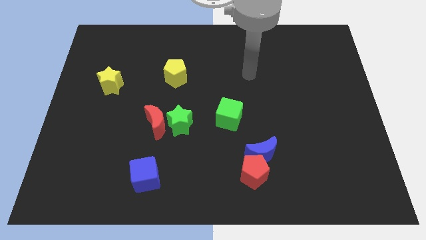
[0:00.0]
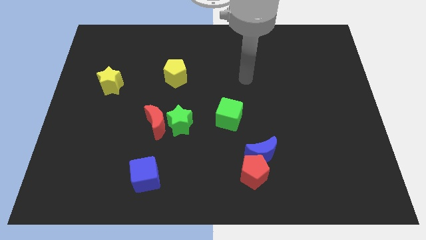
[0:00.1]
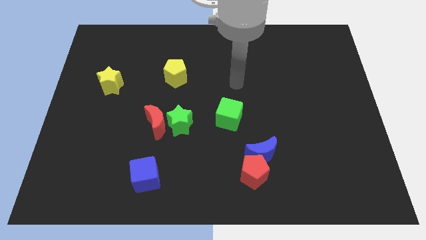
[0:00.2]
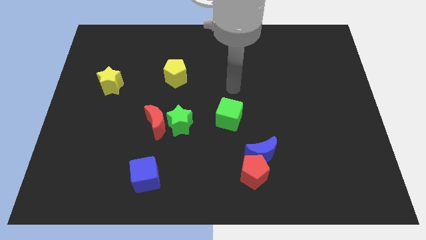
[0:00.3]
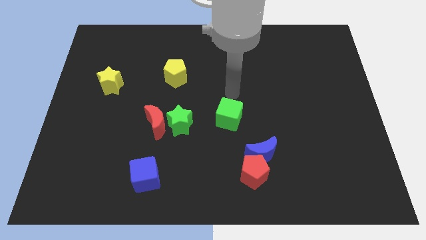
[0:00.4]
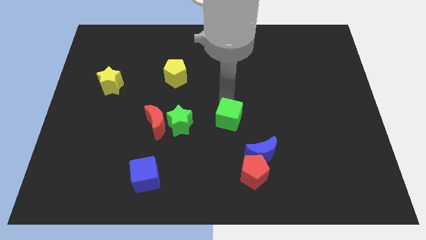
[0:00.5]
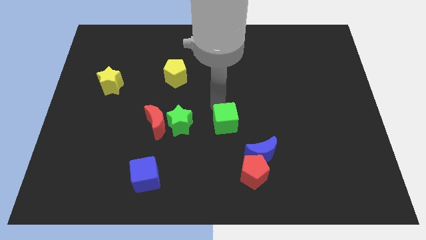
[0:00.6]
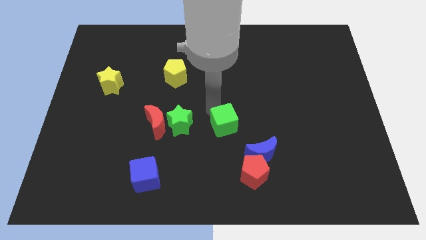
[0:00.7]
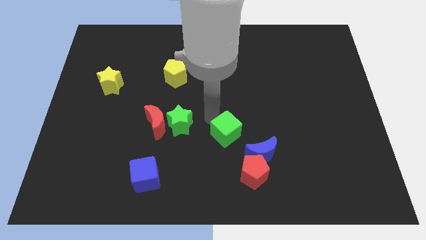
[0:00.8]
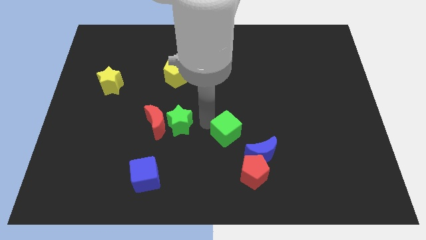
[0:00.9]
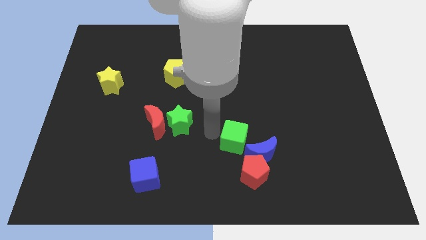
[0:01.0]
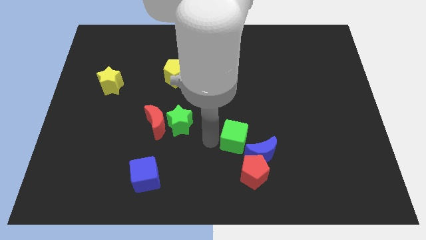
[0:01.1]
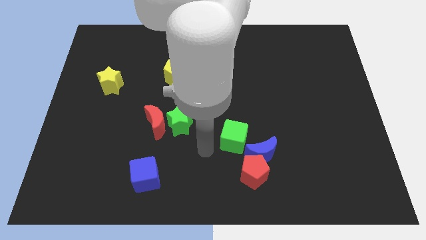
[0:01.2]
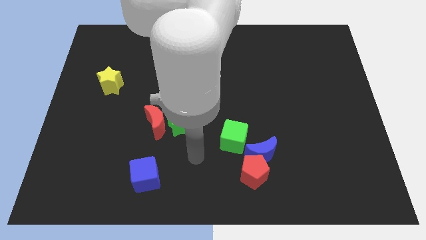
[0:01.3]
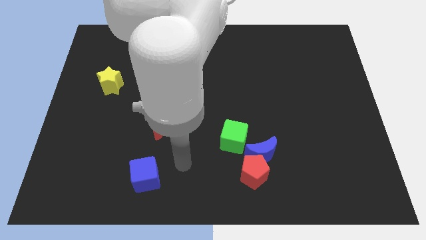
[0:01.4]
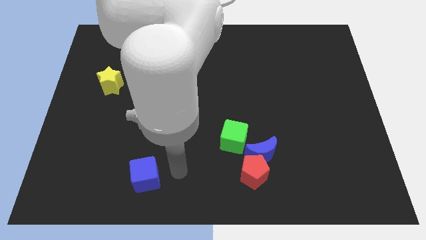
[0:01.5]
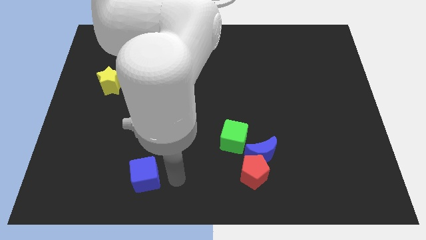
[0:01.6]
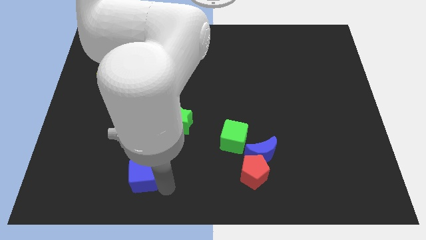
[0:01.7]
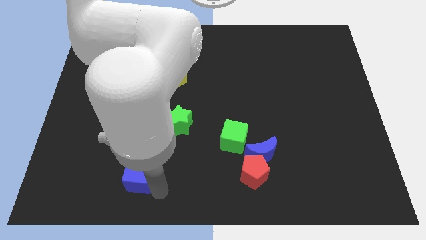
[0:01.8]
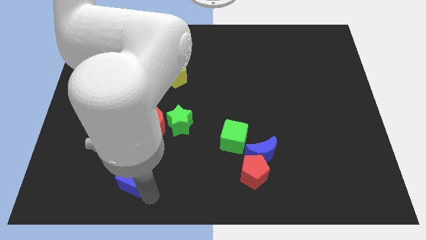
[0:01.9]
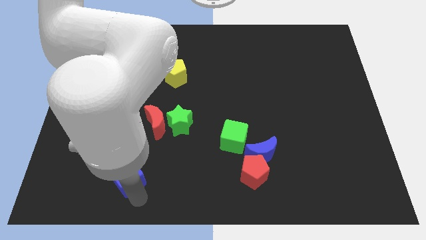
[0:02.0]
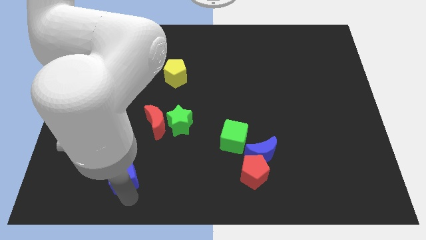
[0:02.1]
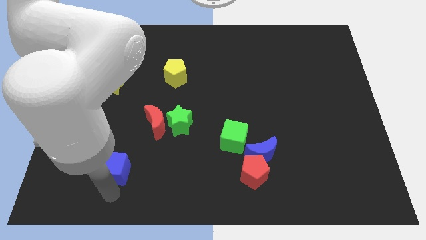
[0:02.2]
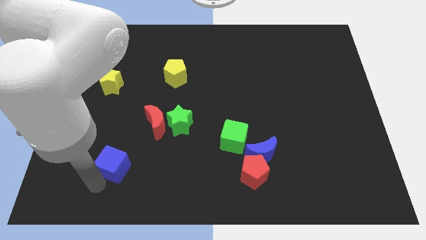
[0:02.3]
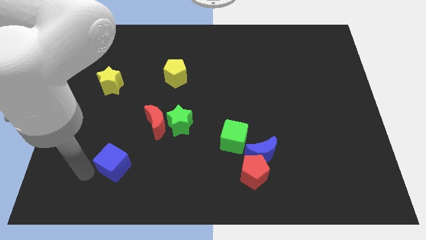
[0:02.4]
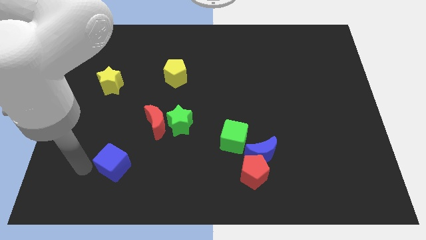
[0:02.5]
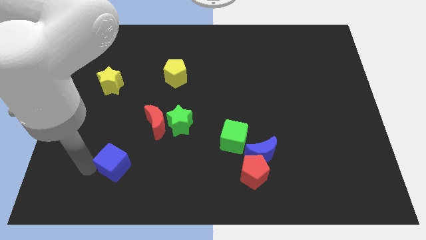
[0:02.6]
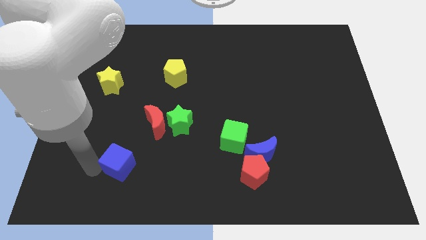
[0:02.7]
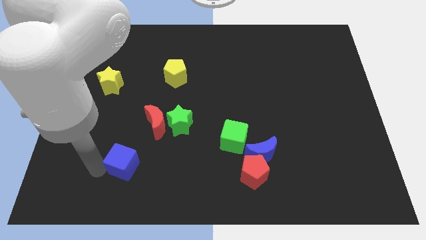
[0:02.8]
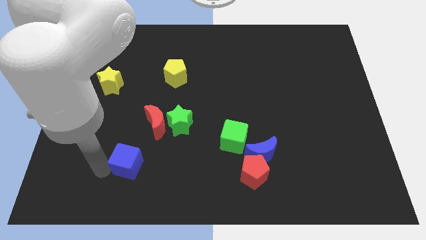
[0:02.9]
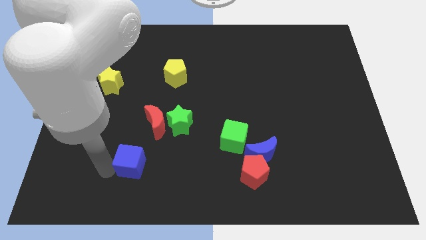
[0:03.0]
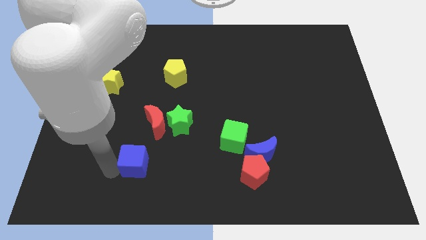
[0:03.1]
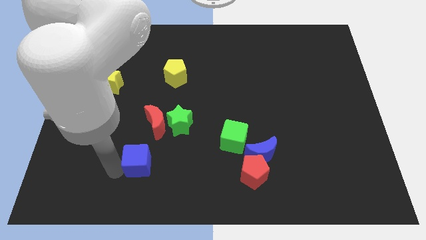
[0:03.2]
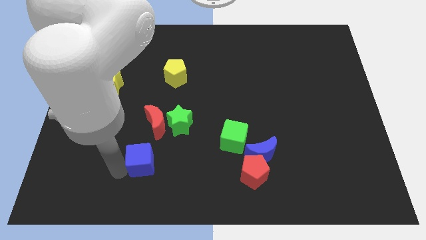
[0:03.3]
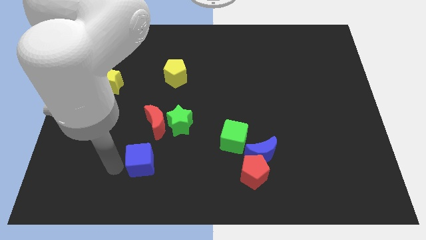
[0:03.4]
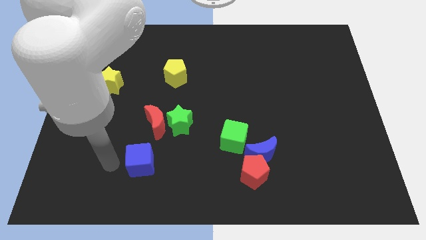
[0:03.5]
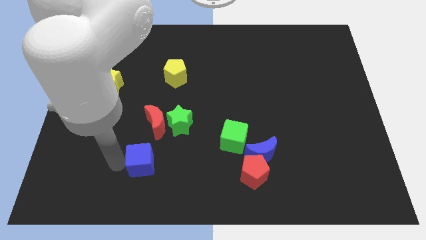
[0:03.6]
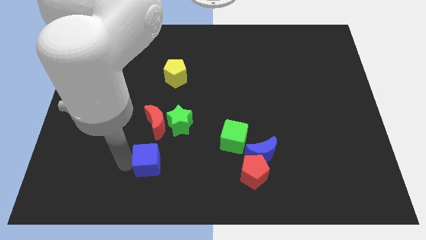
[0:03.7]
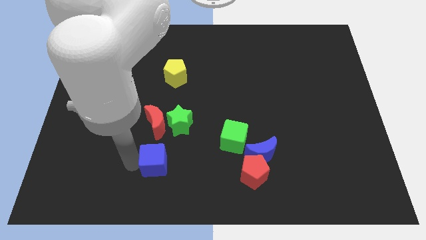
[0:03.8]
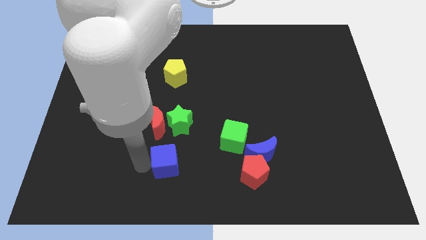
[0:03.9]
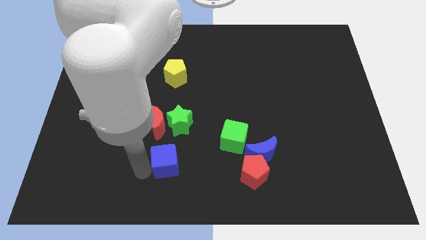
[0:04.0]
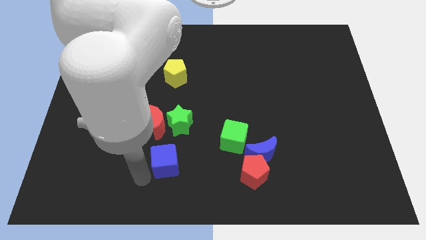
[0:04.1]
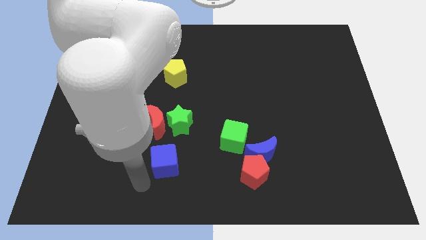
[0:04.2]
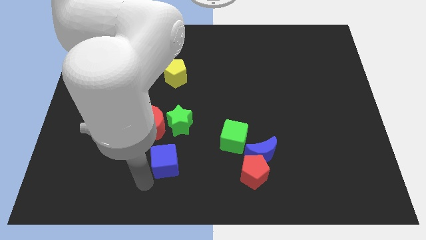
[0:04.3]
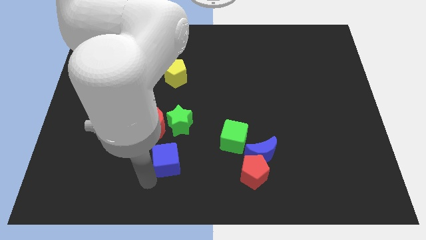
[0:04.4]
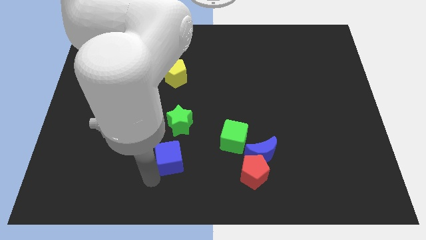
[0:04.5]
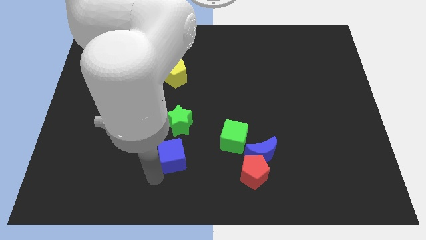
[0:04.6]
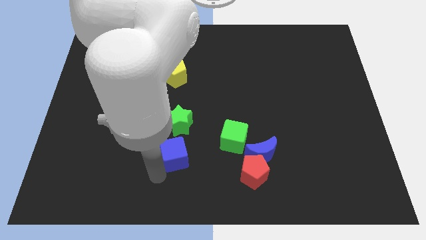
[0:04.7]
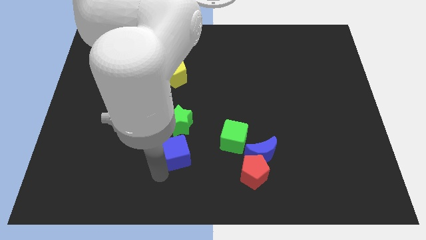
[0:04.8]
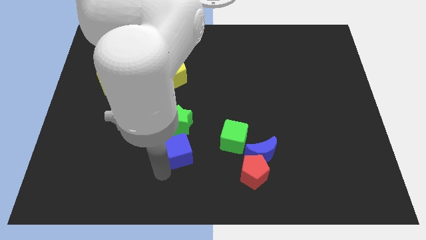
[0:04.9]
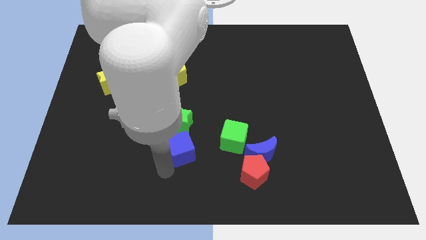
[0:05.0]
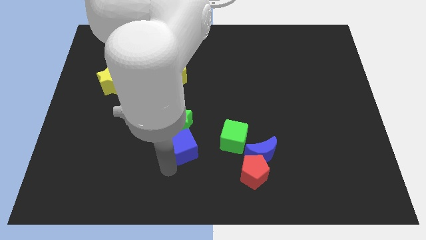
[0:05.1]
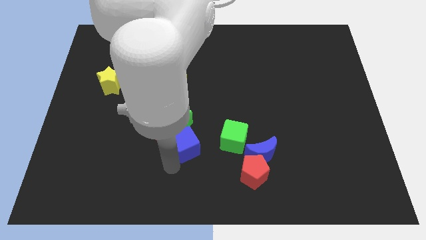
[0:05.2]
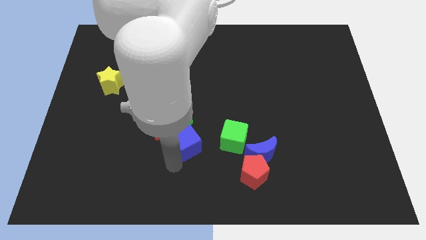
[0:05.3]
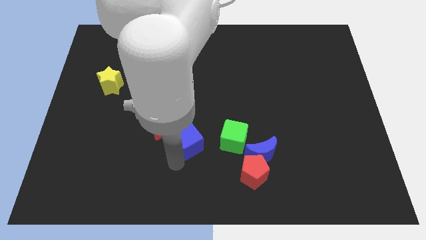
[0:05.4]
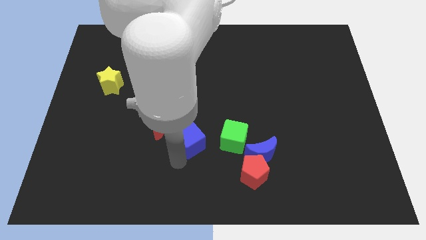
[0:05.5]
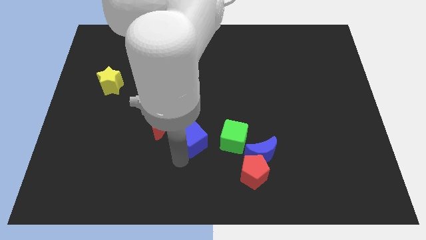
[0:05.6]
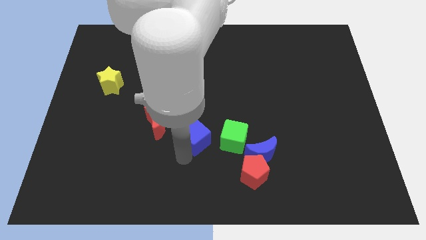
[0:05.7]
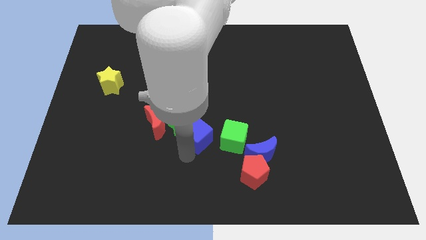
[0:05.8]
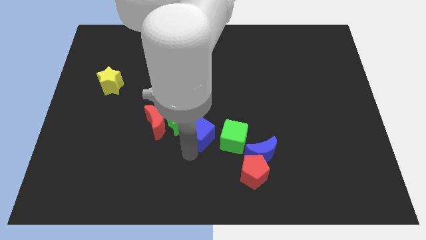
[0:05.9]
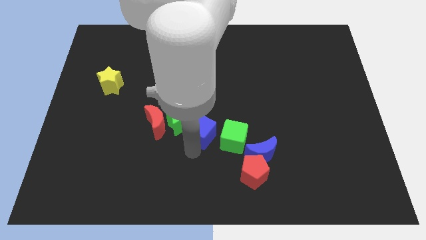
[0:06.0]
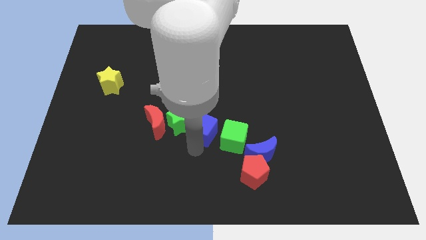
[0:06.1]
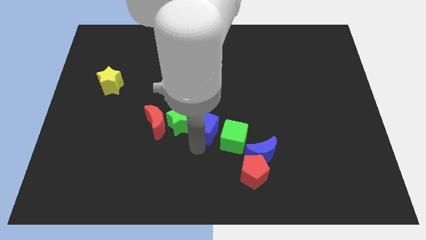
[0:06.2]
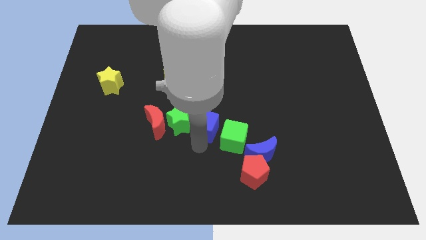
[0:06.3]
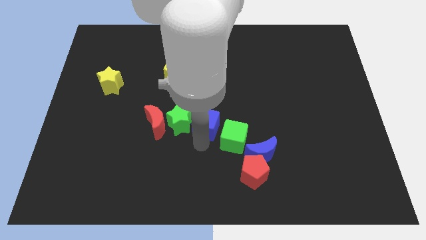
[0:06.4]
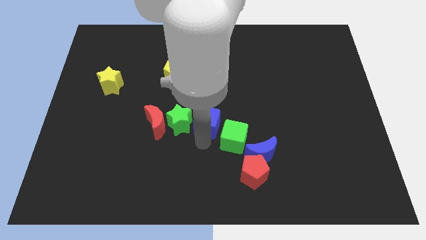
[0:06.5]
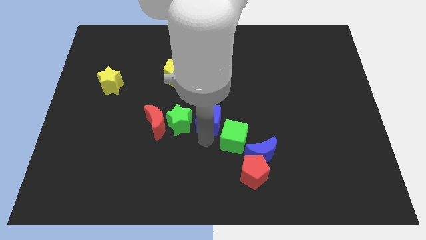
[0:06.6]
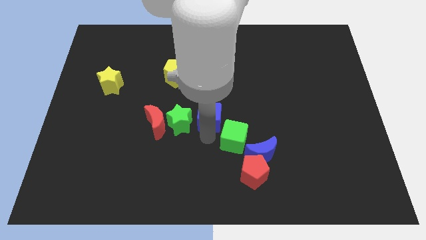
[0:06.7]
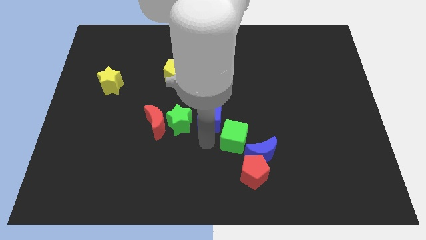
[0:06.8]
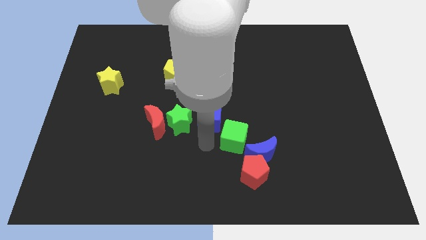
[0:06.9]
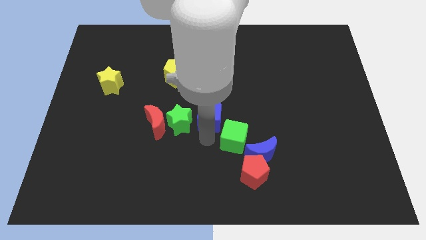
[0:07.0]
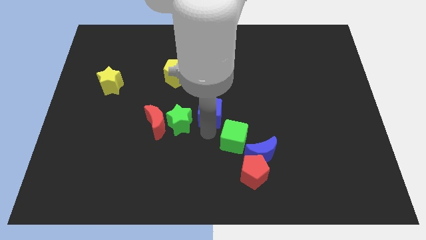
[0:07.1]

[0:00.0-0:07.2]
move the blue cube up and right

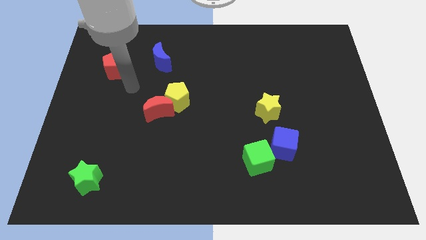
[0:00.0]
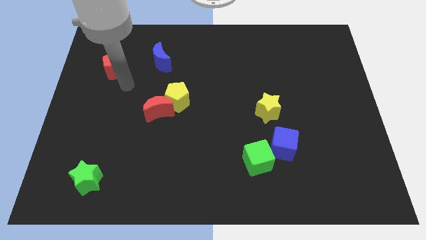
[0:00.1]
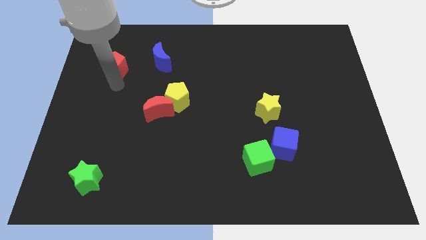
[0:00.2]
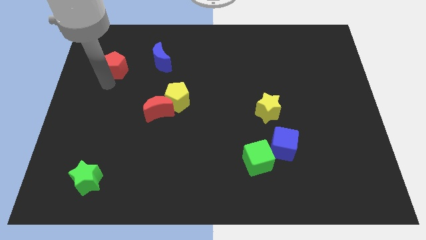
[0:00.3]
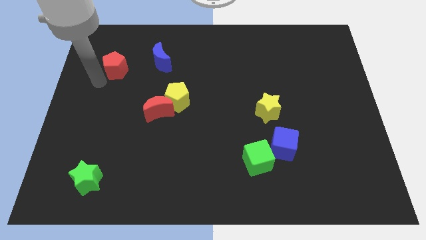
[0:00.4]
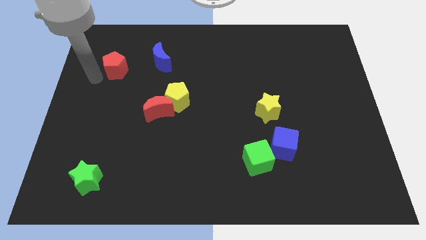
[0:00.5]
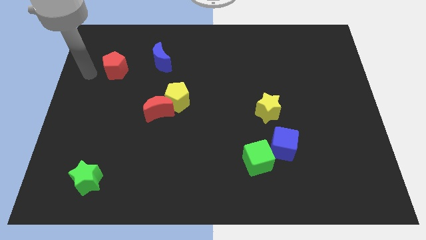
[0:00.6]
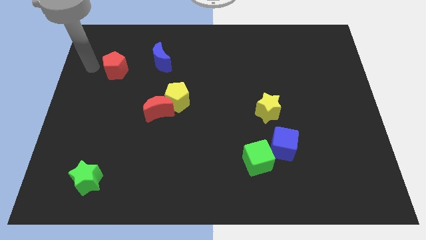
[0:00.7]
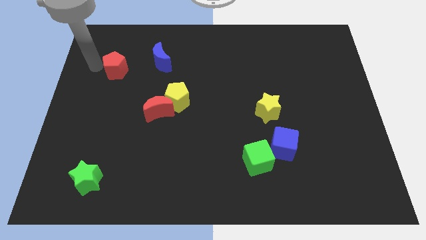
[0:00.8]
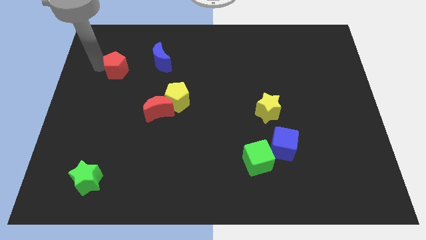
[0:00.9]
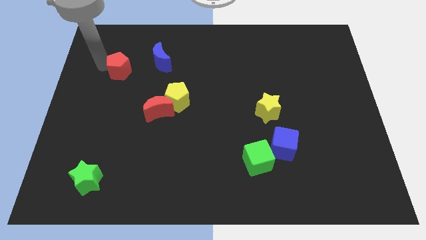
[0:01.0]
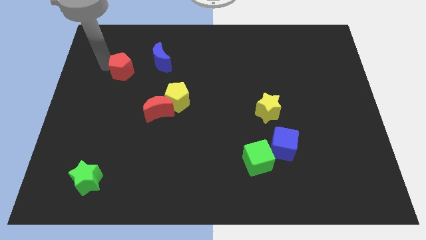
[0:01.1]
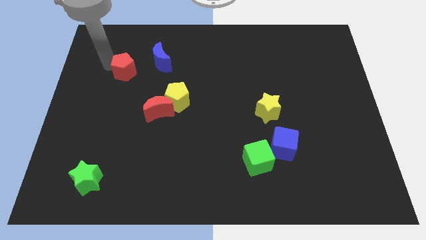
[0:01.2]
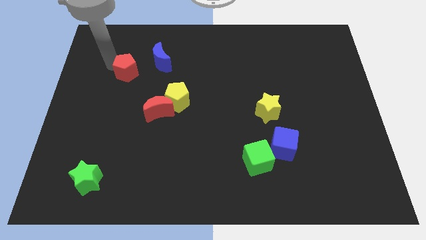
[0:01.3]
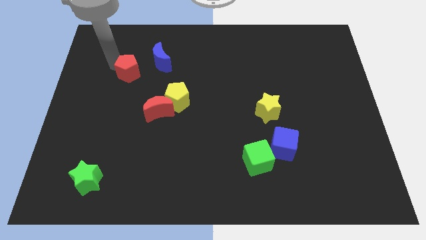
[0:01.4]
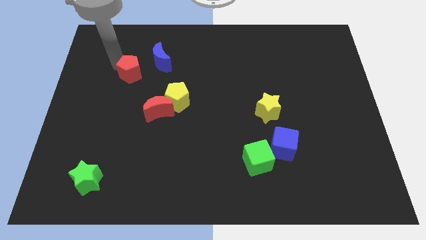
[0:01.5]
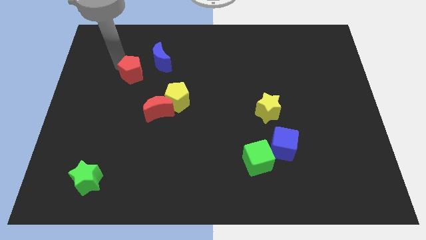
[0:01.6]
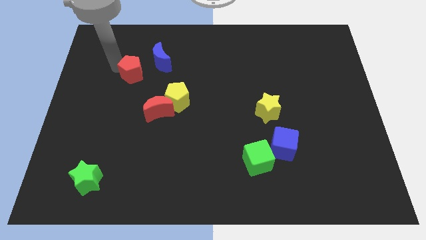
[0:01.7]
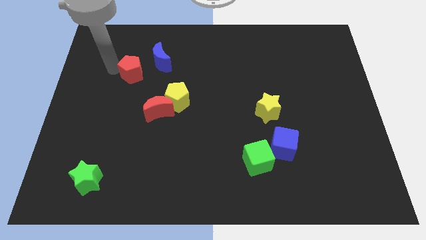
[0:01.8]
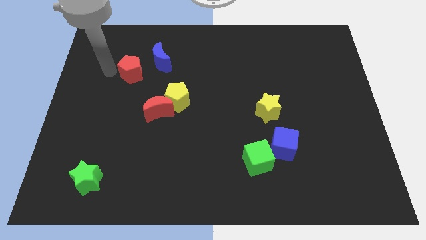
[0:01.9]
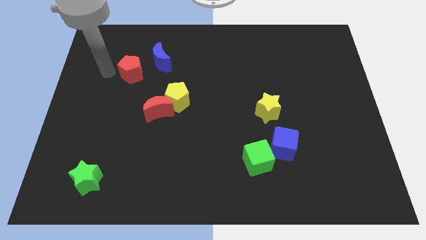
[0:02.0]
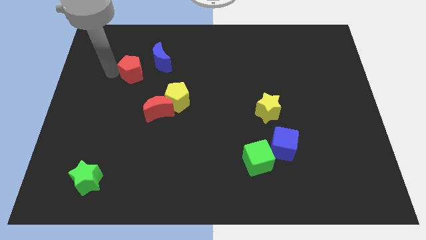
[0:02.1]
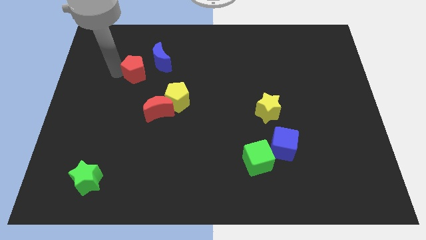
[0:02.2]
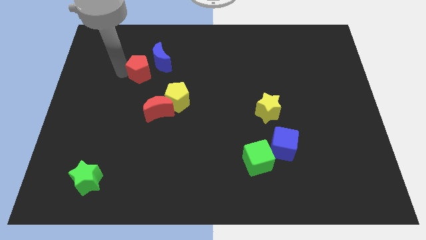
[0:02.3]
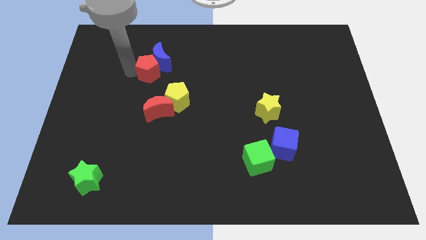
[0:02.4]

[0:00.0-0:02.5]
move the red pentagon right a little bit
